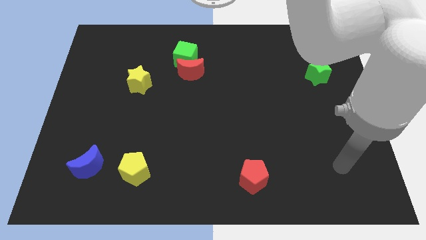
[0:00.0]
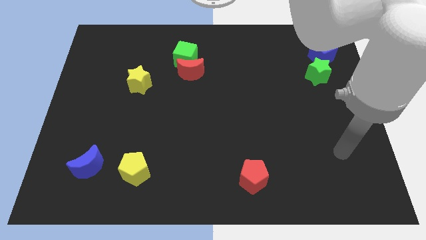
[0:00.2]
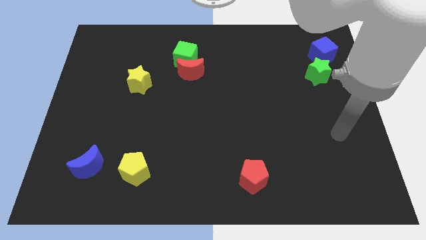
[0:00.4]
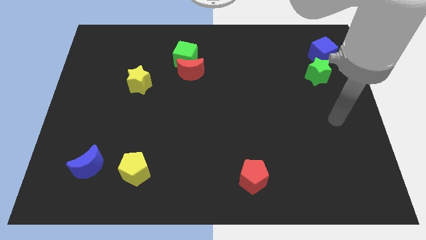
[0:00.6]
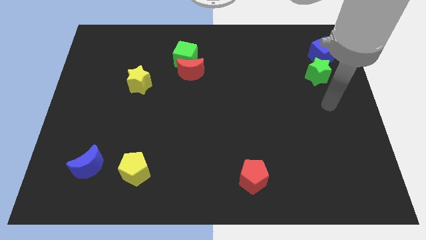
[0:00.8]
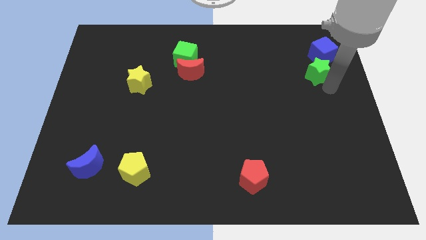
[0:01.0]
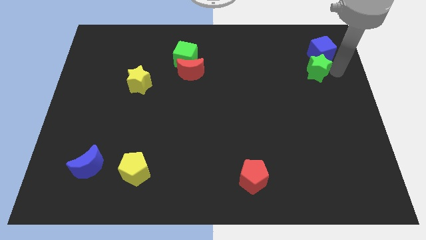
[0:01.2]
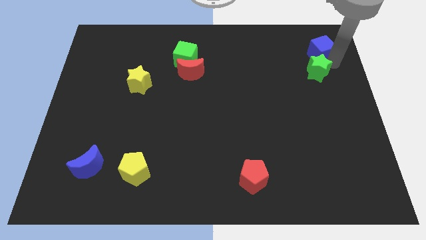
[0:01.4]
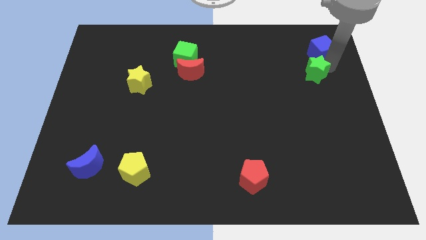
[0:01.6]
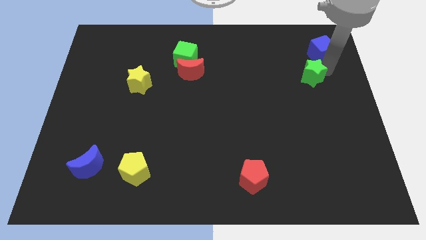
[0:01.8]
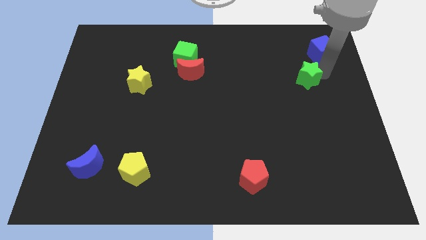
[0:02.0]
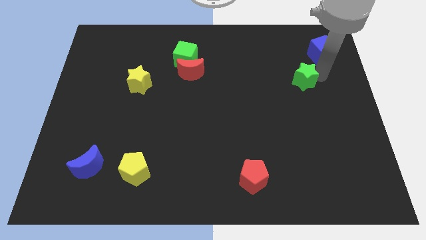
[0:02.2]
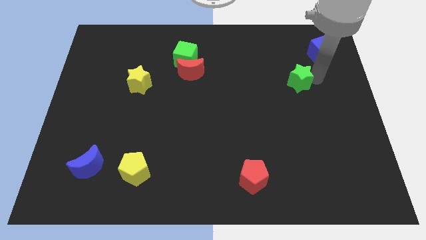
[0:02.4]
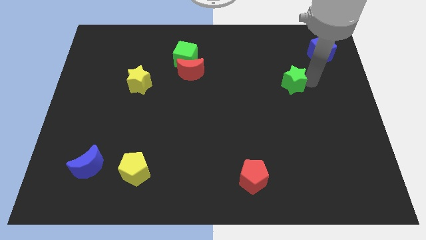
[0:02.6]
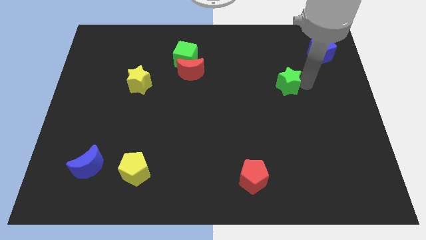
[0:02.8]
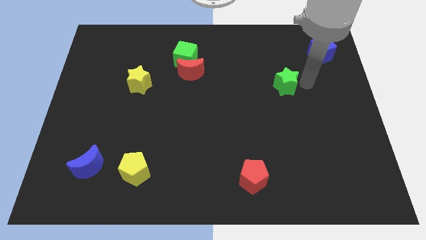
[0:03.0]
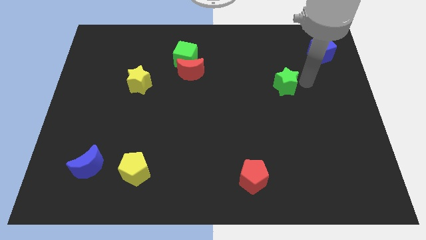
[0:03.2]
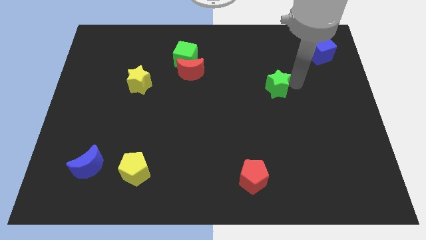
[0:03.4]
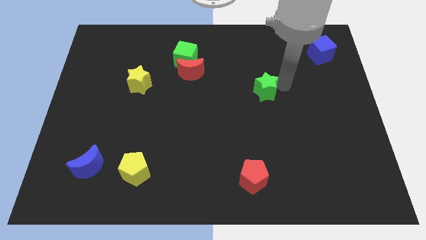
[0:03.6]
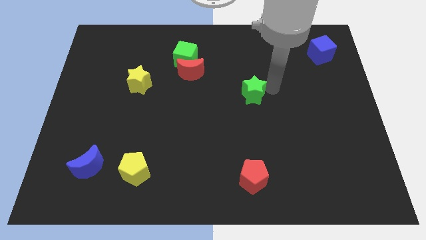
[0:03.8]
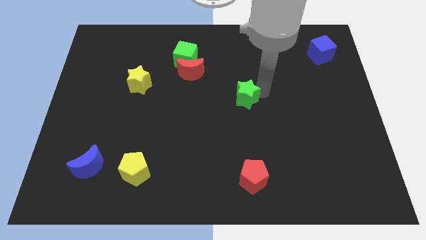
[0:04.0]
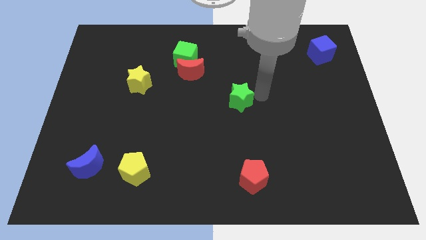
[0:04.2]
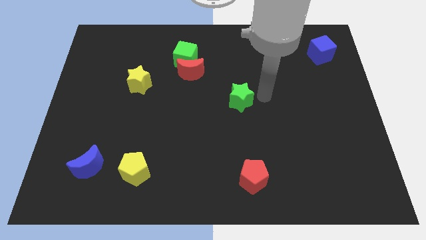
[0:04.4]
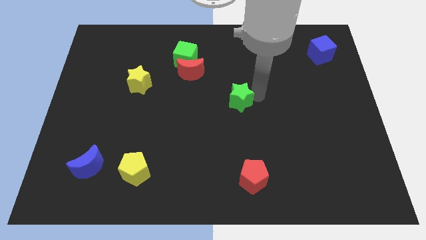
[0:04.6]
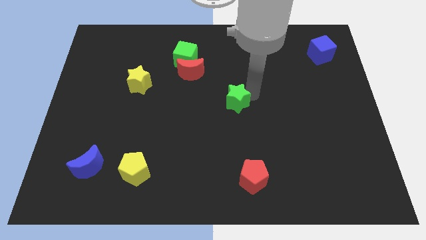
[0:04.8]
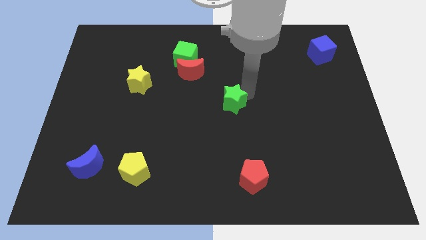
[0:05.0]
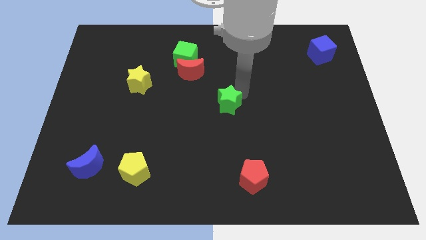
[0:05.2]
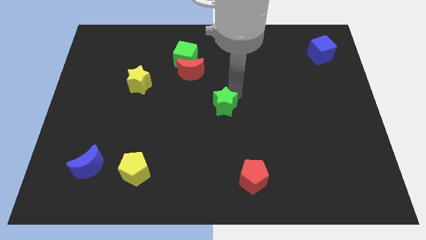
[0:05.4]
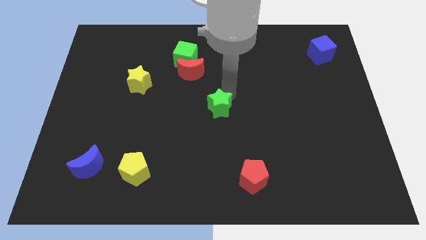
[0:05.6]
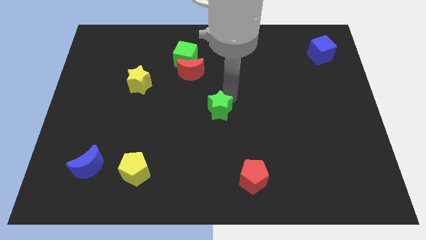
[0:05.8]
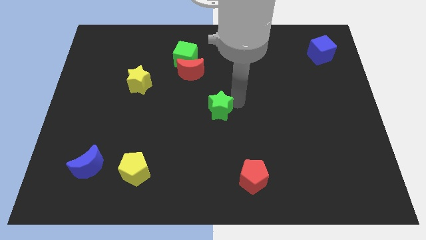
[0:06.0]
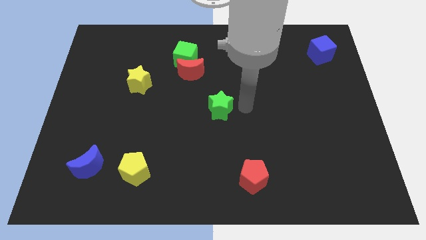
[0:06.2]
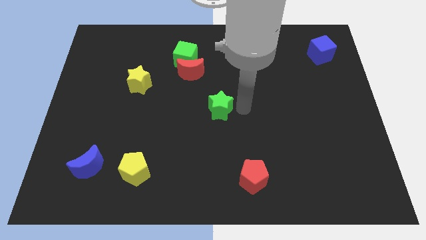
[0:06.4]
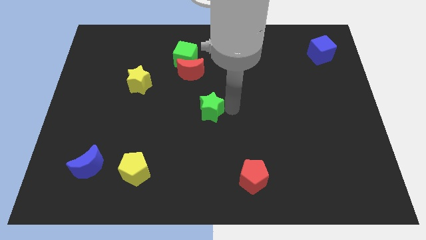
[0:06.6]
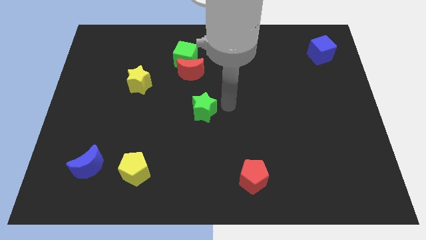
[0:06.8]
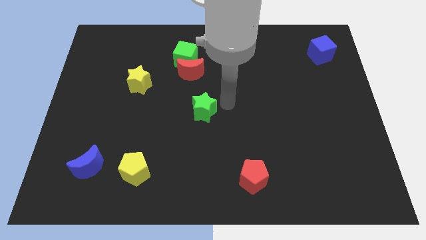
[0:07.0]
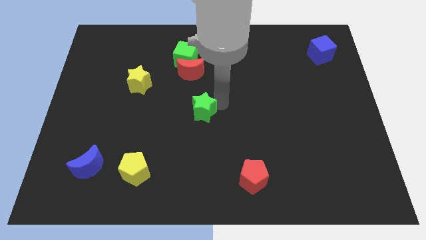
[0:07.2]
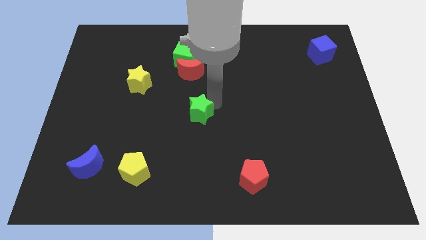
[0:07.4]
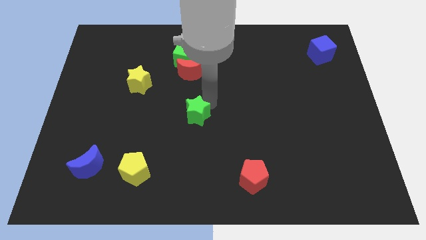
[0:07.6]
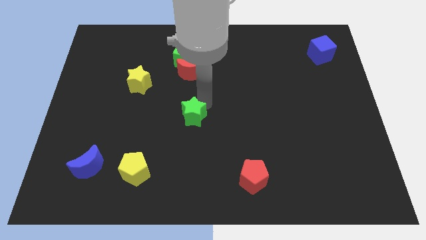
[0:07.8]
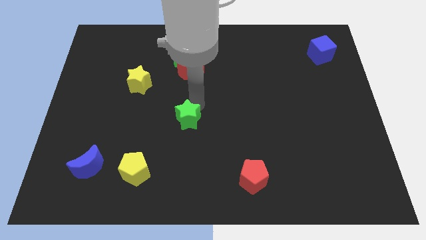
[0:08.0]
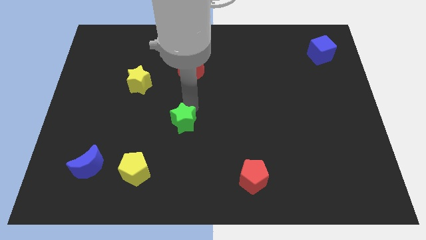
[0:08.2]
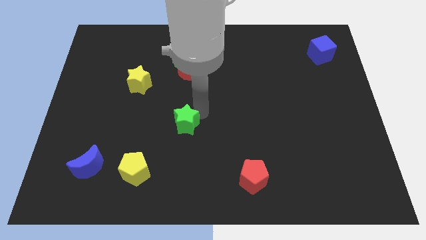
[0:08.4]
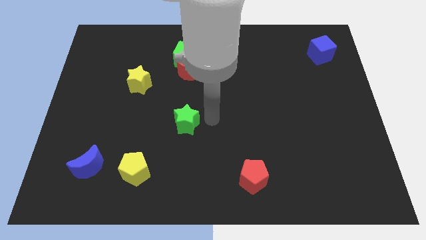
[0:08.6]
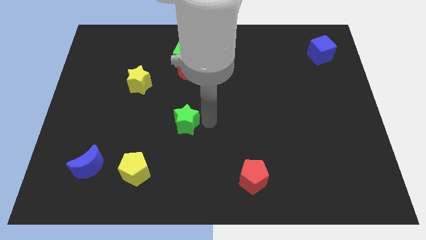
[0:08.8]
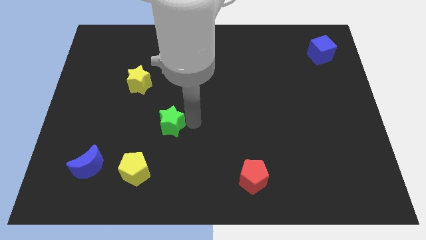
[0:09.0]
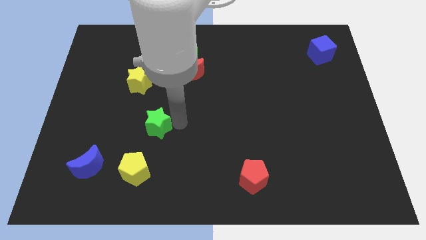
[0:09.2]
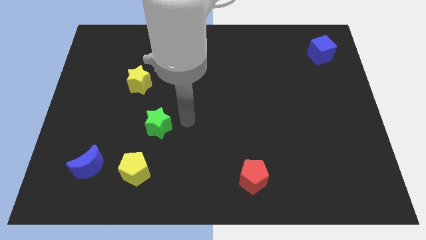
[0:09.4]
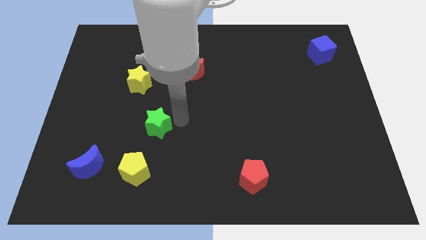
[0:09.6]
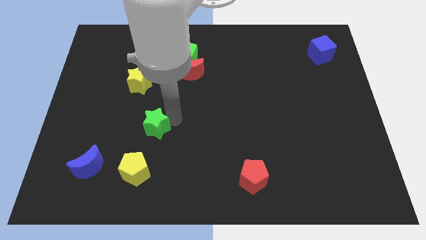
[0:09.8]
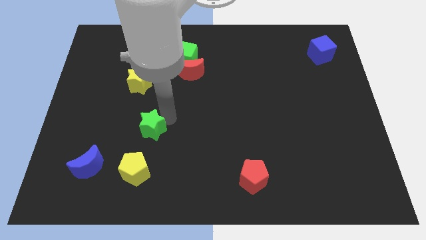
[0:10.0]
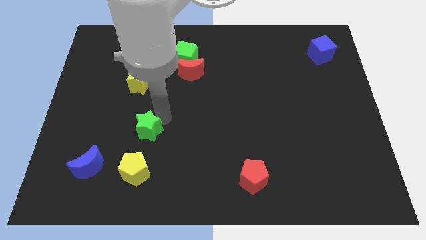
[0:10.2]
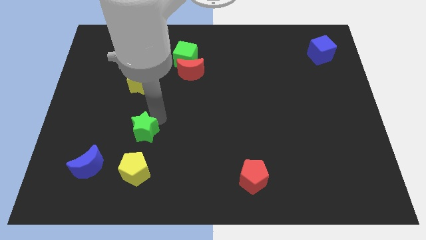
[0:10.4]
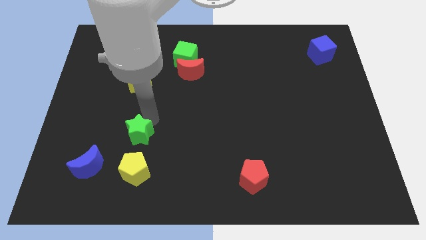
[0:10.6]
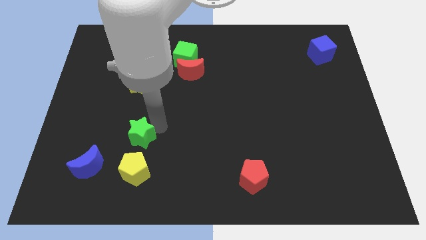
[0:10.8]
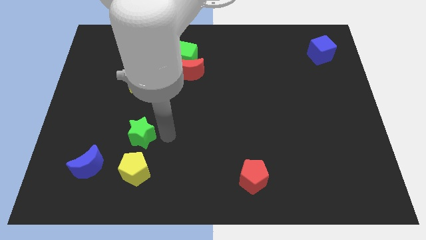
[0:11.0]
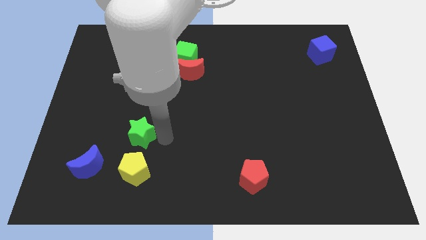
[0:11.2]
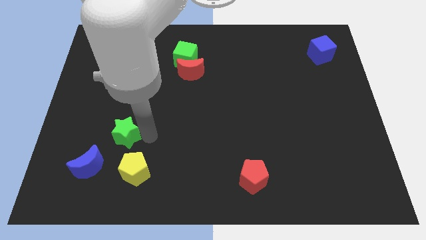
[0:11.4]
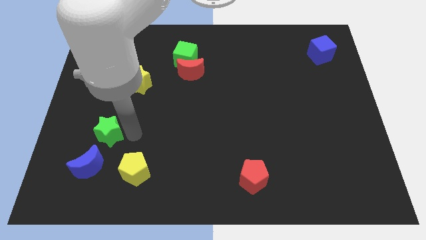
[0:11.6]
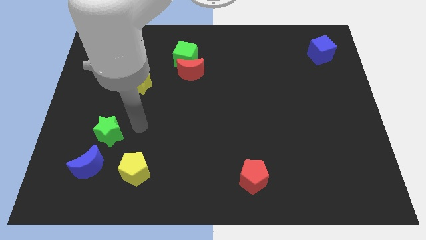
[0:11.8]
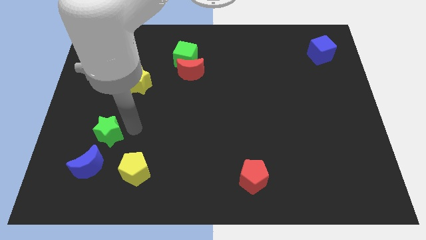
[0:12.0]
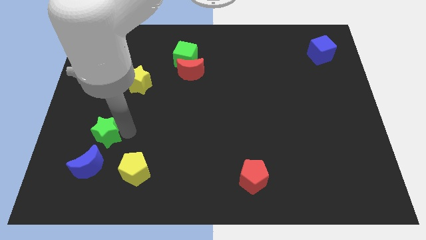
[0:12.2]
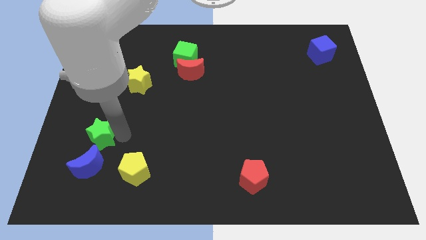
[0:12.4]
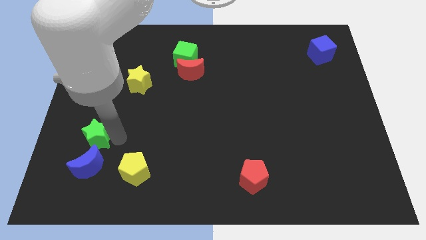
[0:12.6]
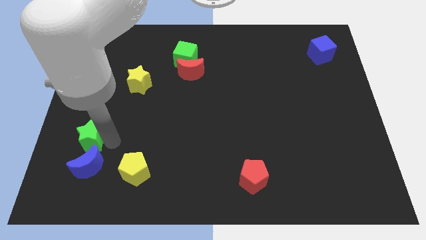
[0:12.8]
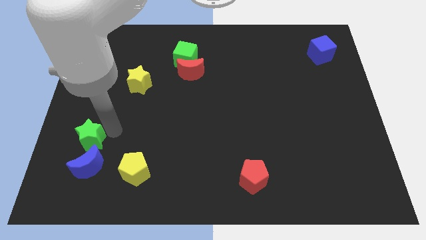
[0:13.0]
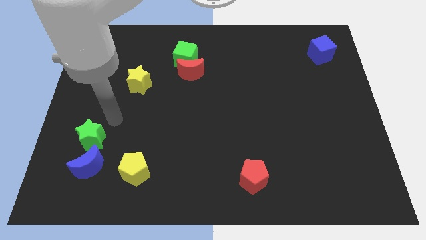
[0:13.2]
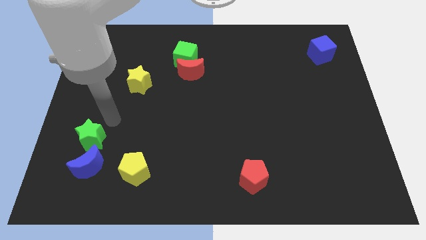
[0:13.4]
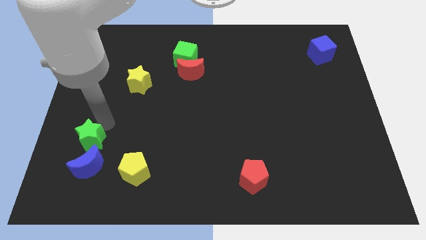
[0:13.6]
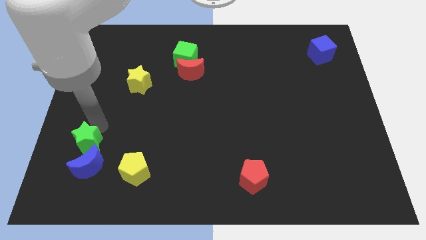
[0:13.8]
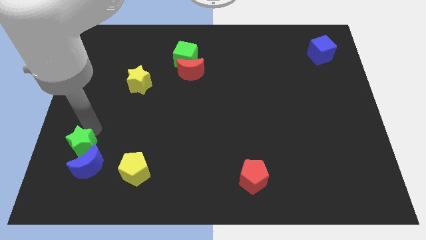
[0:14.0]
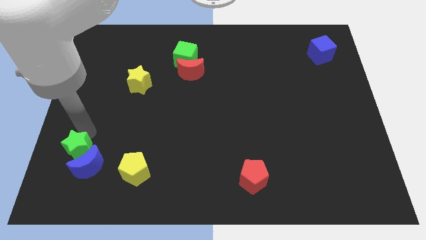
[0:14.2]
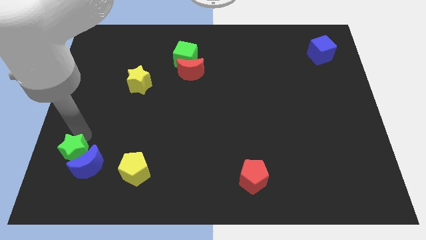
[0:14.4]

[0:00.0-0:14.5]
push the green star to the left side of the yellow pentagon

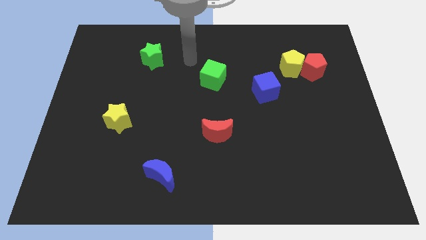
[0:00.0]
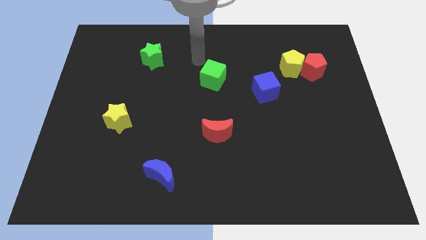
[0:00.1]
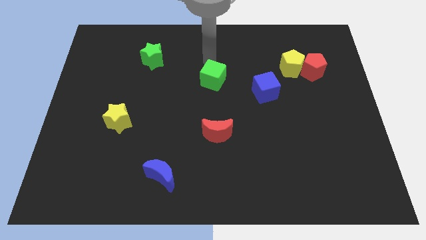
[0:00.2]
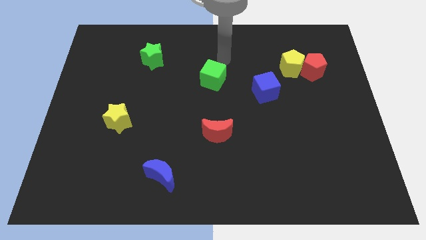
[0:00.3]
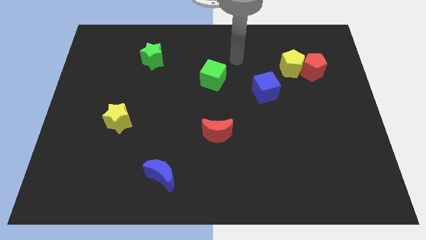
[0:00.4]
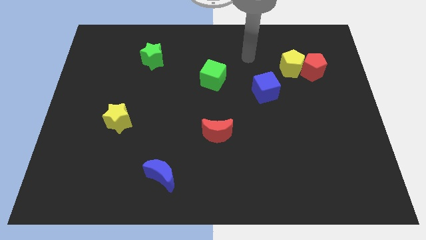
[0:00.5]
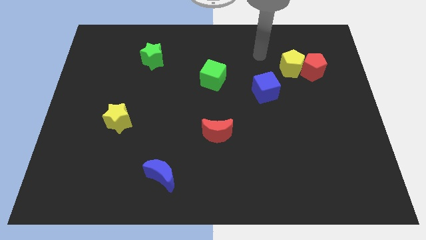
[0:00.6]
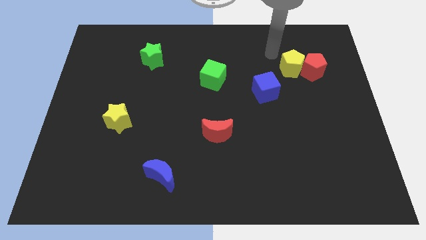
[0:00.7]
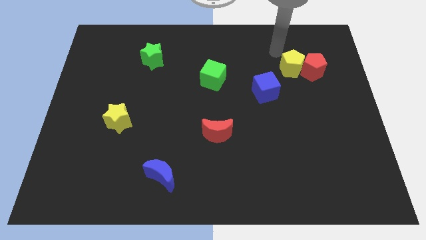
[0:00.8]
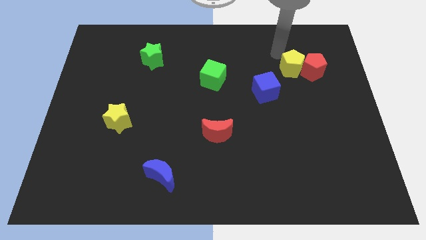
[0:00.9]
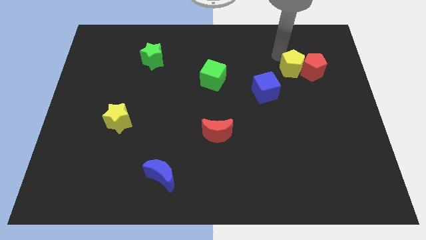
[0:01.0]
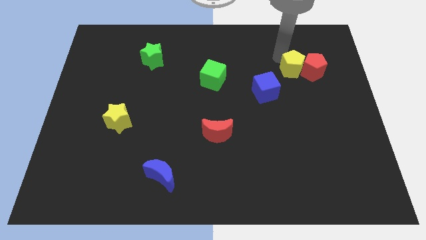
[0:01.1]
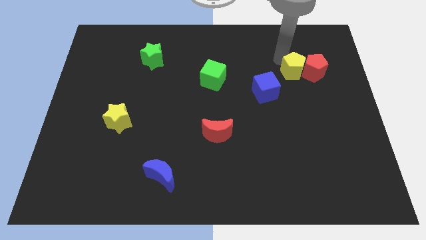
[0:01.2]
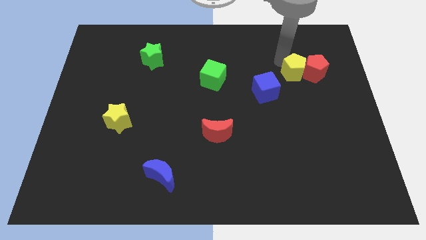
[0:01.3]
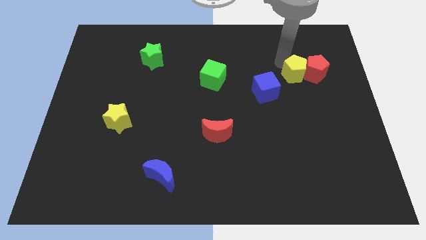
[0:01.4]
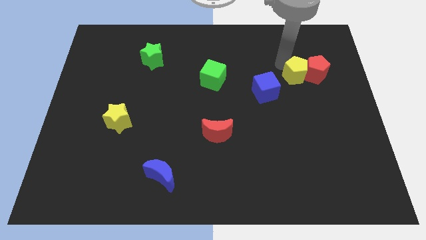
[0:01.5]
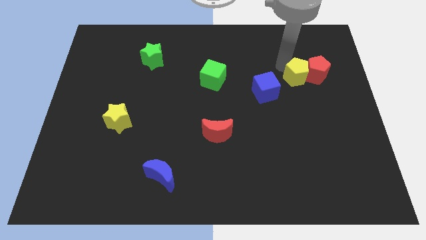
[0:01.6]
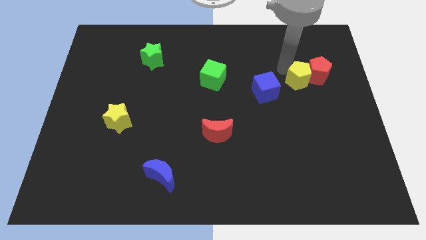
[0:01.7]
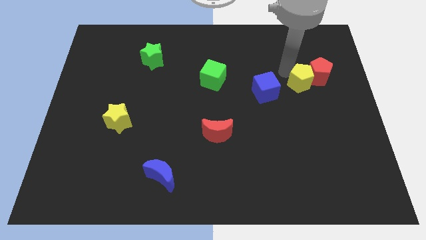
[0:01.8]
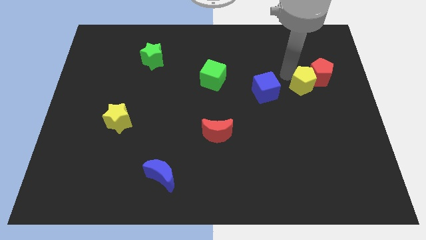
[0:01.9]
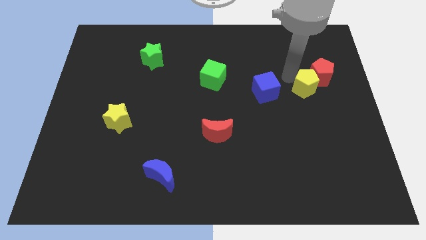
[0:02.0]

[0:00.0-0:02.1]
push the yellow pentagon below the red pentagon
